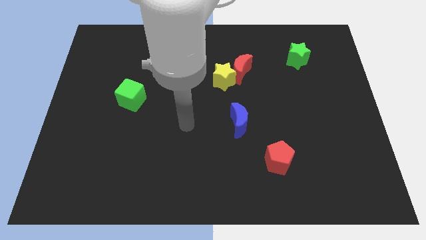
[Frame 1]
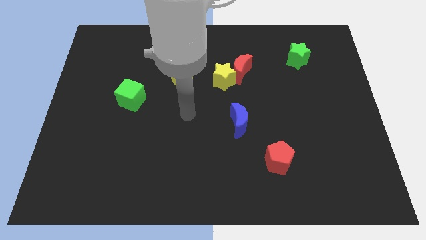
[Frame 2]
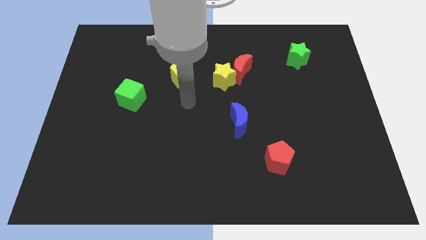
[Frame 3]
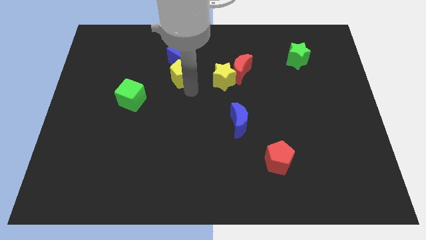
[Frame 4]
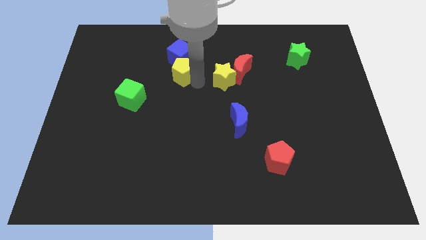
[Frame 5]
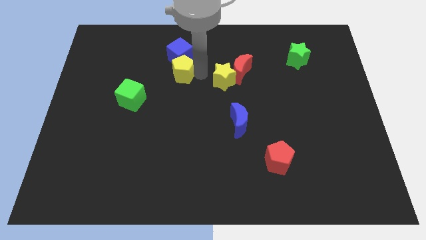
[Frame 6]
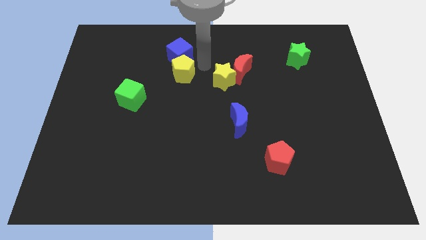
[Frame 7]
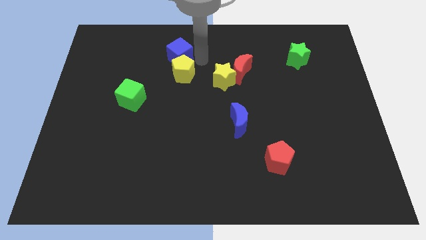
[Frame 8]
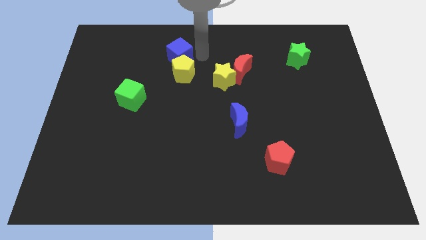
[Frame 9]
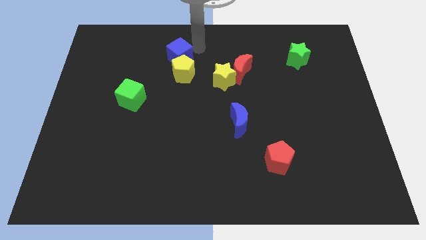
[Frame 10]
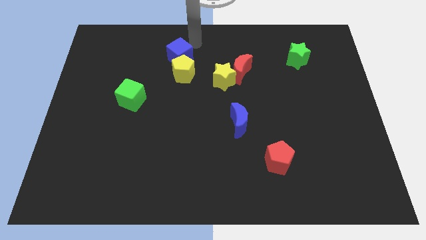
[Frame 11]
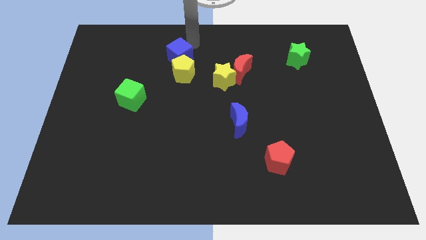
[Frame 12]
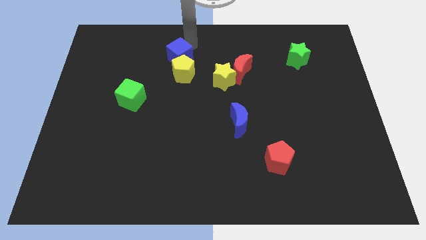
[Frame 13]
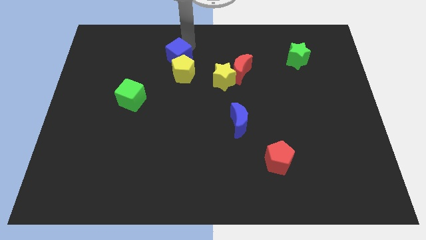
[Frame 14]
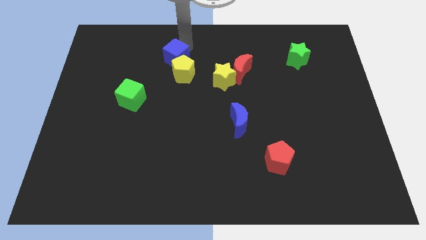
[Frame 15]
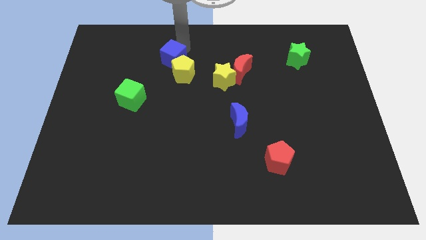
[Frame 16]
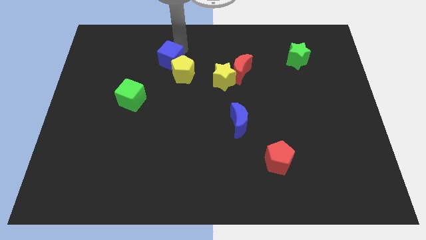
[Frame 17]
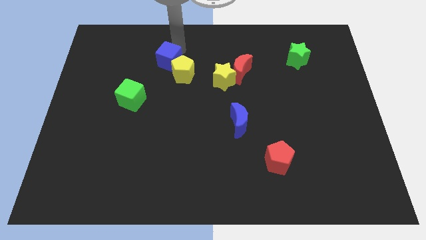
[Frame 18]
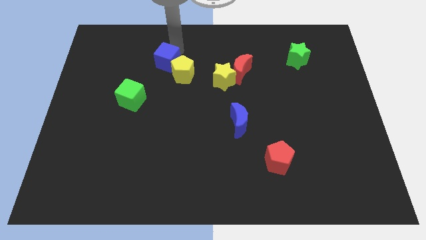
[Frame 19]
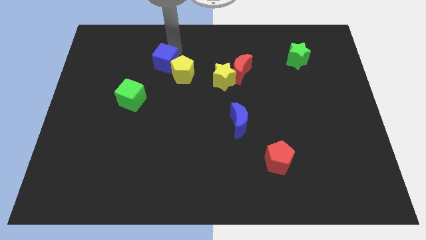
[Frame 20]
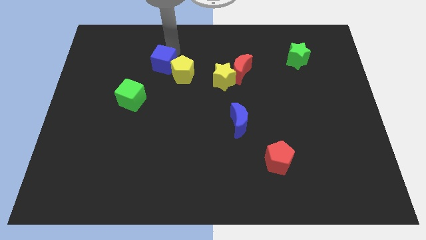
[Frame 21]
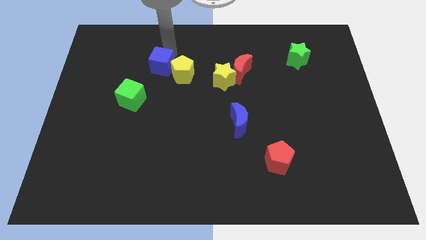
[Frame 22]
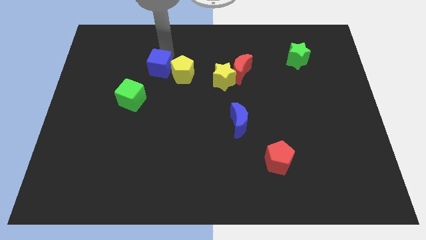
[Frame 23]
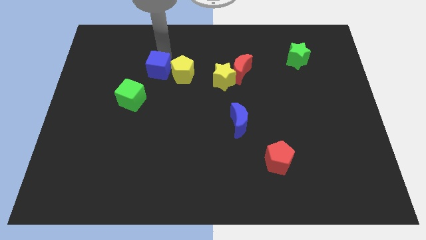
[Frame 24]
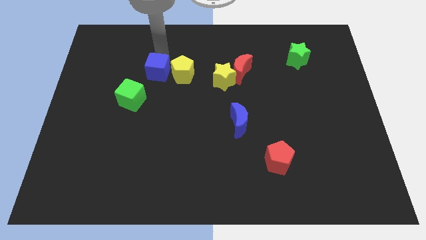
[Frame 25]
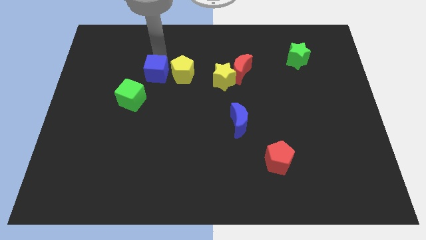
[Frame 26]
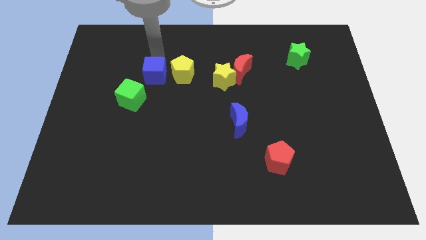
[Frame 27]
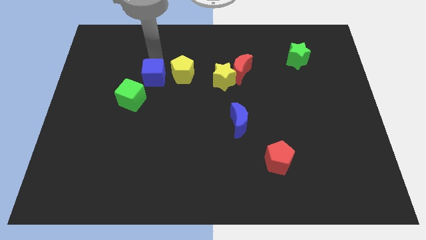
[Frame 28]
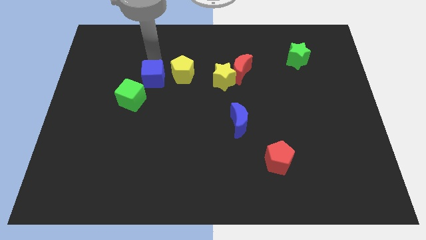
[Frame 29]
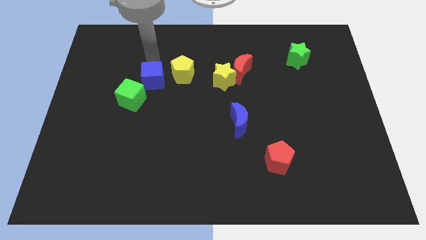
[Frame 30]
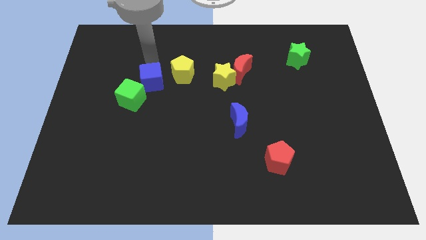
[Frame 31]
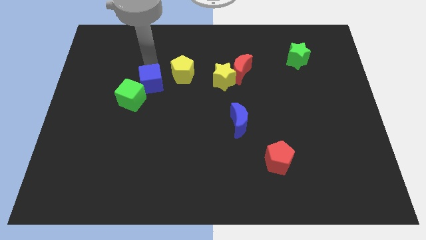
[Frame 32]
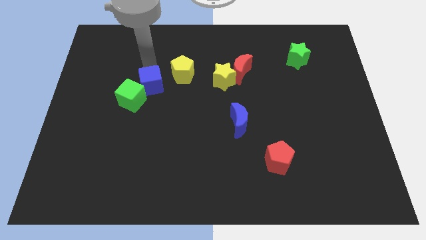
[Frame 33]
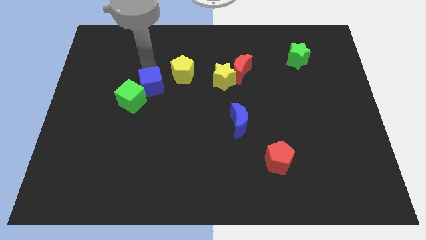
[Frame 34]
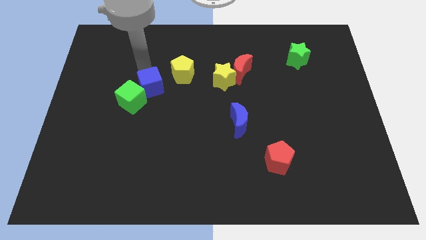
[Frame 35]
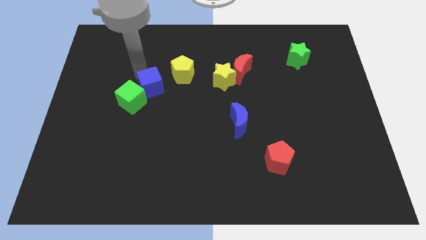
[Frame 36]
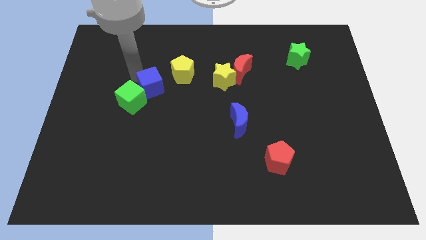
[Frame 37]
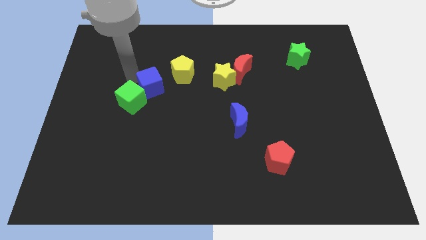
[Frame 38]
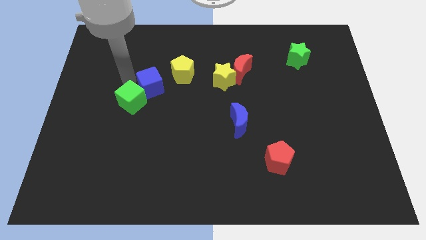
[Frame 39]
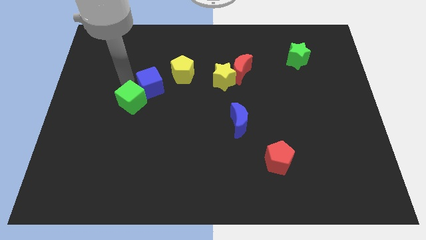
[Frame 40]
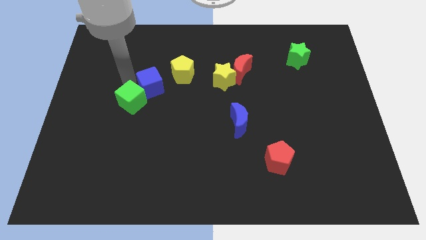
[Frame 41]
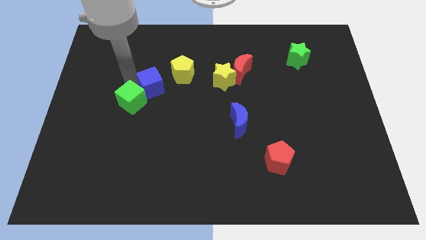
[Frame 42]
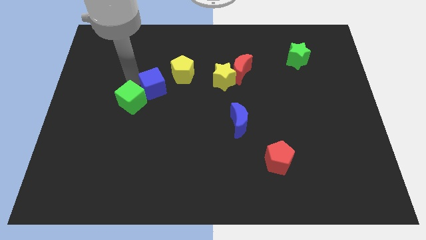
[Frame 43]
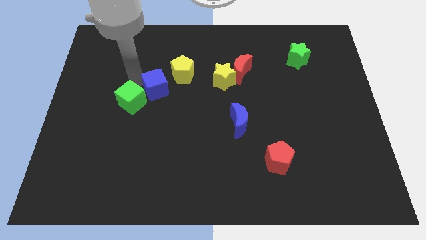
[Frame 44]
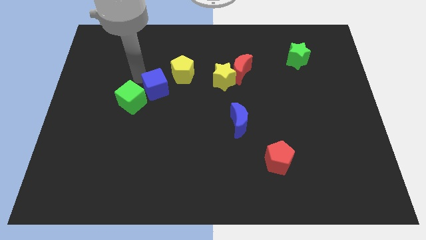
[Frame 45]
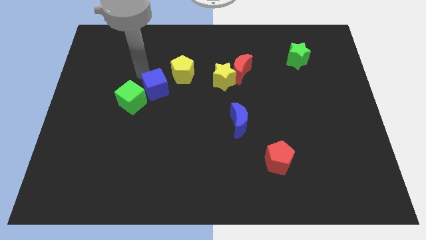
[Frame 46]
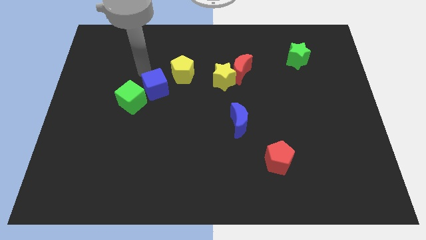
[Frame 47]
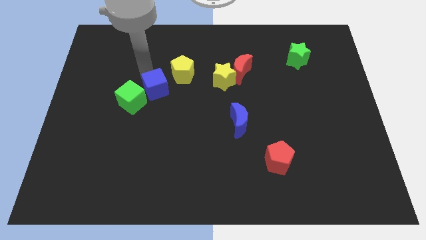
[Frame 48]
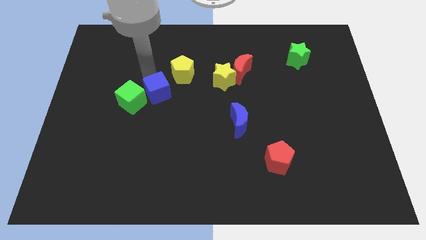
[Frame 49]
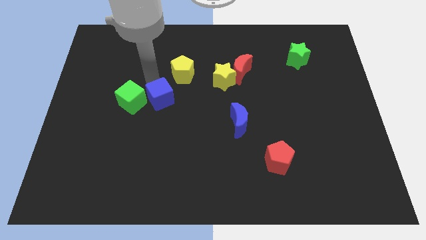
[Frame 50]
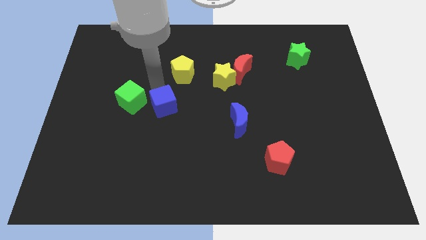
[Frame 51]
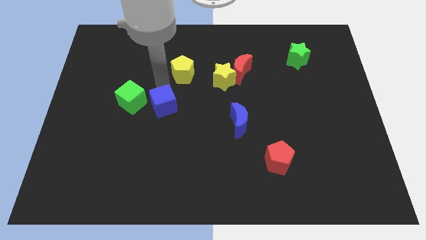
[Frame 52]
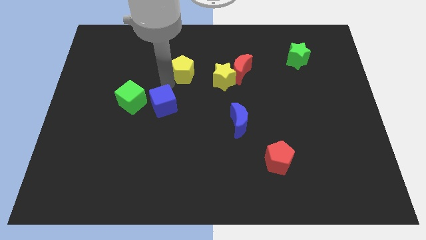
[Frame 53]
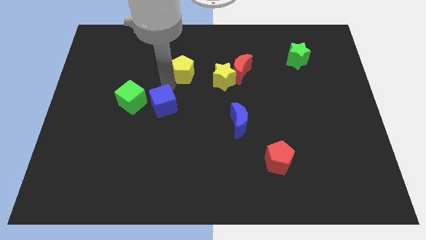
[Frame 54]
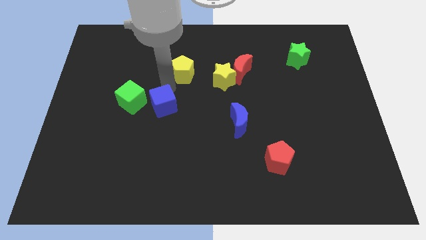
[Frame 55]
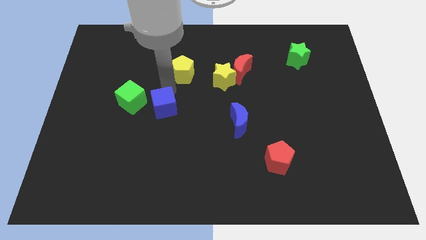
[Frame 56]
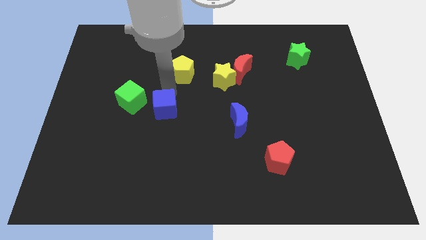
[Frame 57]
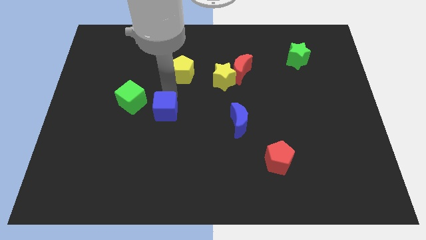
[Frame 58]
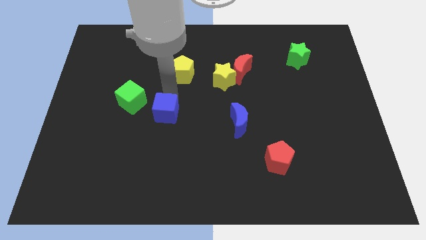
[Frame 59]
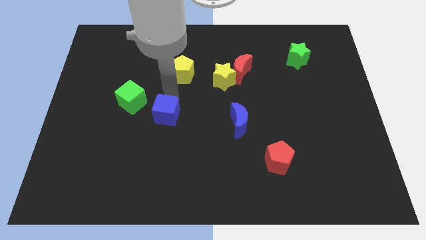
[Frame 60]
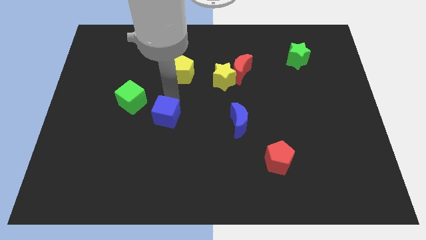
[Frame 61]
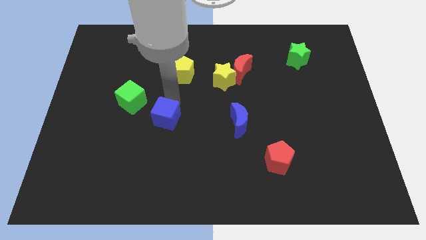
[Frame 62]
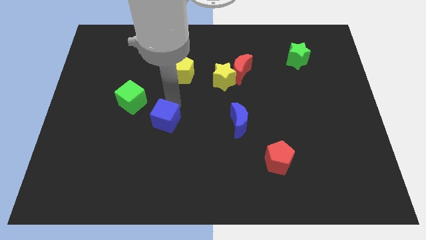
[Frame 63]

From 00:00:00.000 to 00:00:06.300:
move the blue cube down

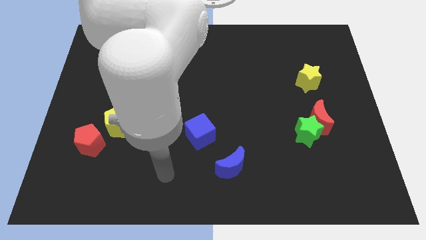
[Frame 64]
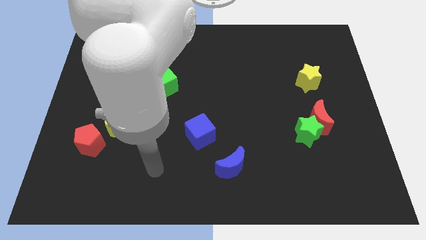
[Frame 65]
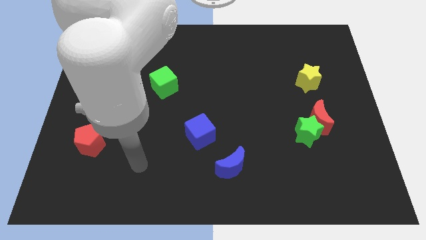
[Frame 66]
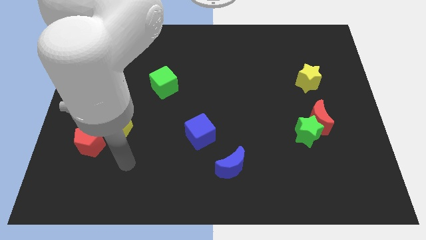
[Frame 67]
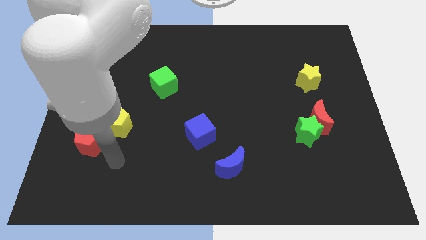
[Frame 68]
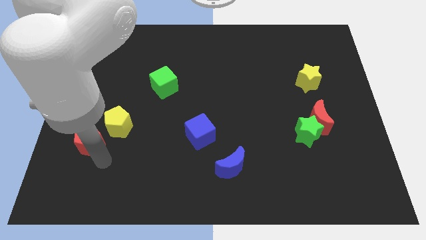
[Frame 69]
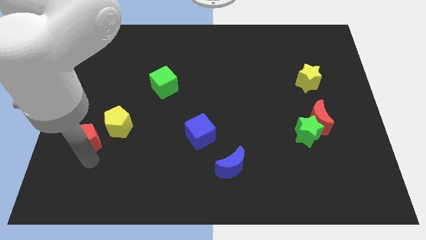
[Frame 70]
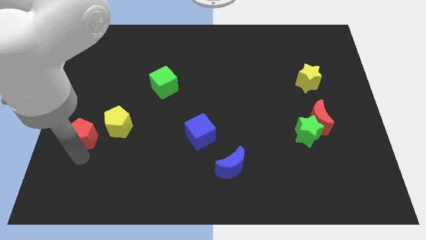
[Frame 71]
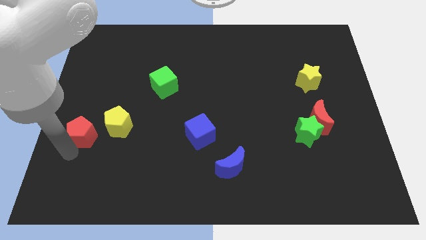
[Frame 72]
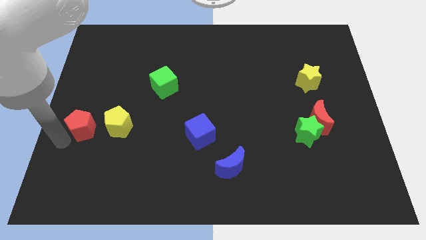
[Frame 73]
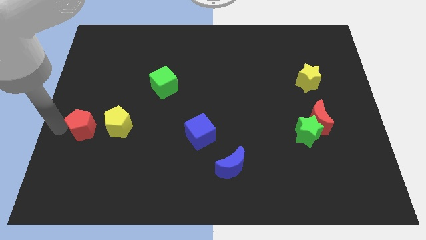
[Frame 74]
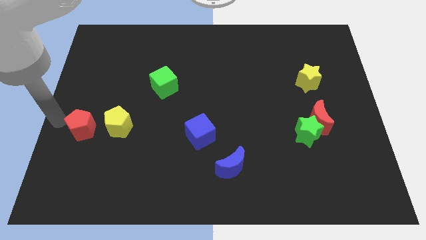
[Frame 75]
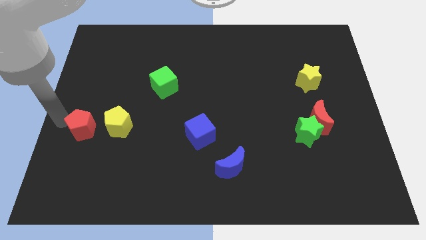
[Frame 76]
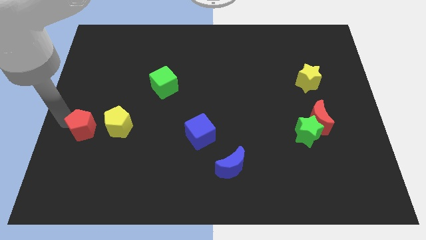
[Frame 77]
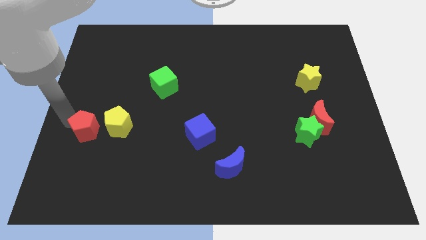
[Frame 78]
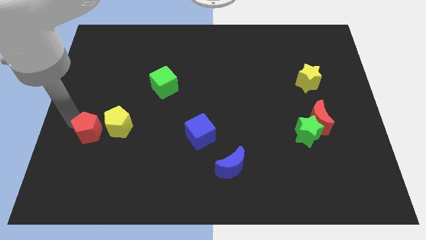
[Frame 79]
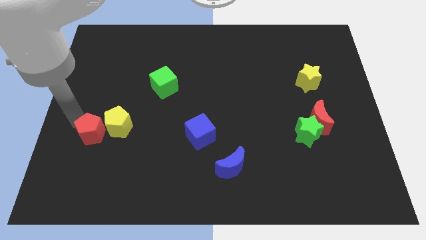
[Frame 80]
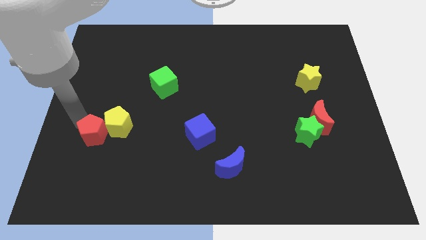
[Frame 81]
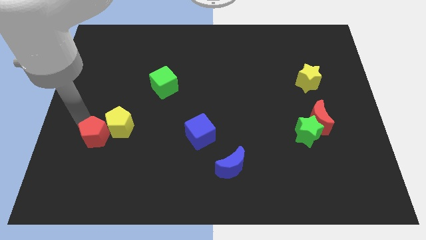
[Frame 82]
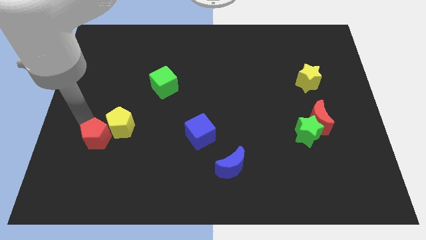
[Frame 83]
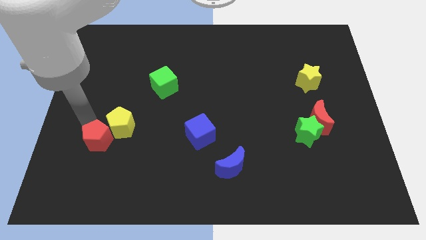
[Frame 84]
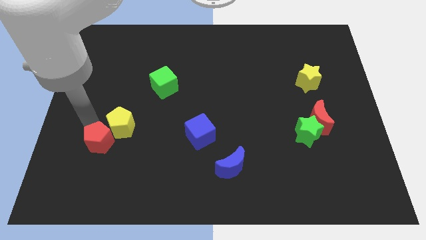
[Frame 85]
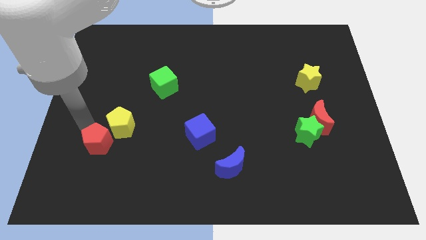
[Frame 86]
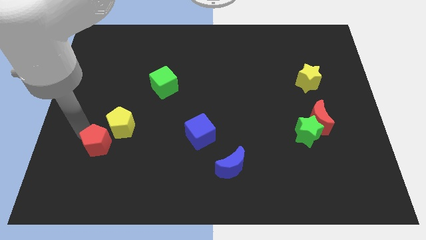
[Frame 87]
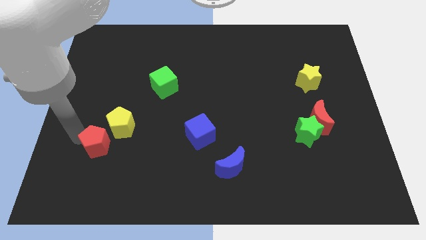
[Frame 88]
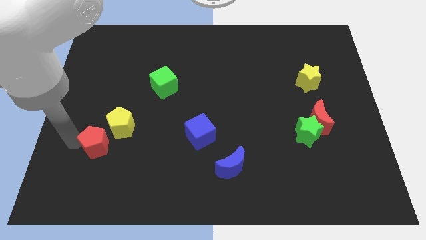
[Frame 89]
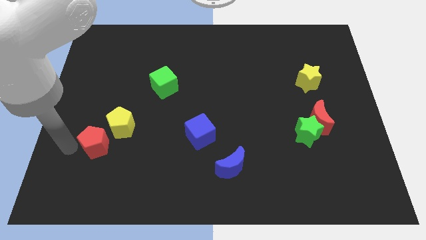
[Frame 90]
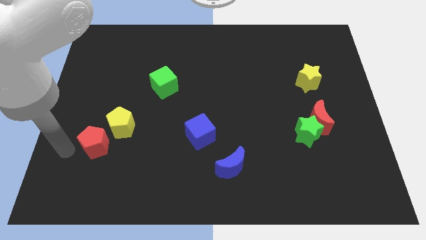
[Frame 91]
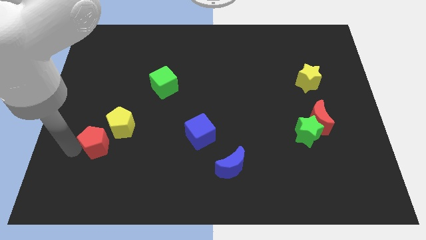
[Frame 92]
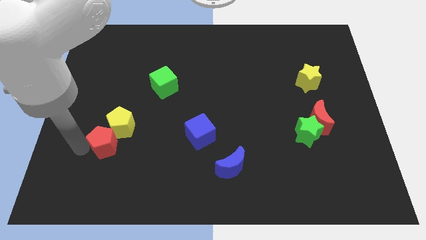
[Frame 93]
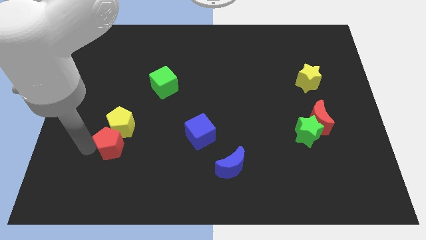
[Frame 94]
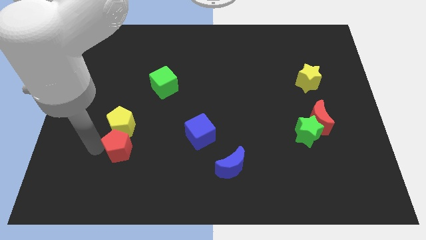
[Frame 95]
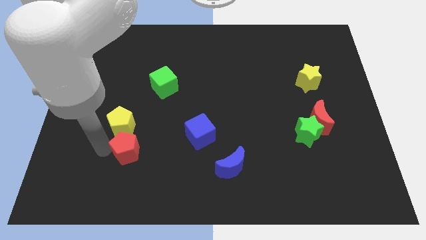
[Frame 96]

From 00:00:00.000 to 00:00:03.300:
slightly move the red pentagon right
